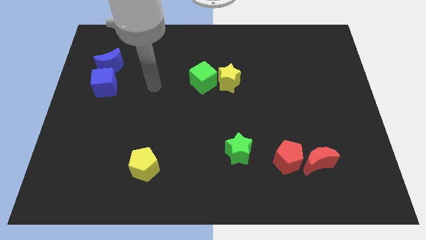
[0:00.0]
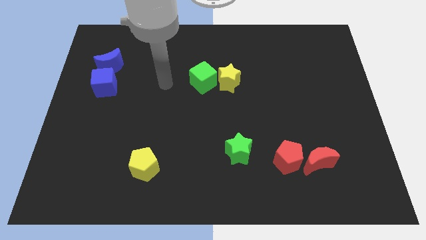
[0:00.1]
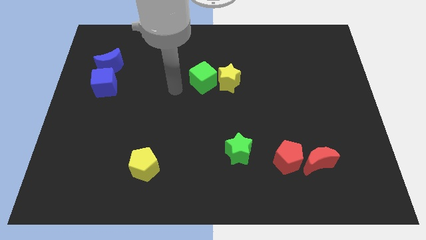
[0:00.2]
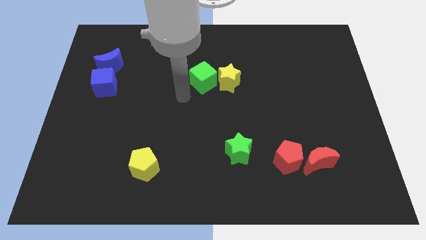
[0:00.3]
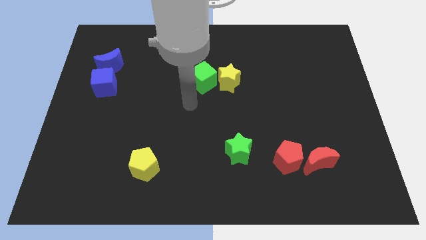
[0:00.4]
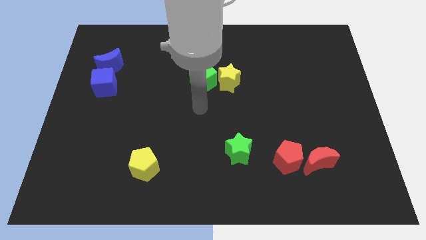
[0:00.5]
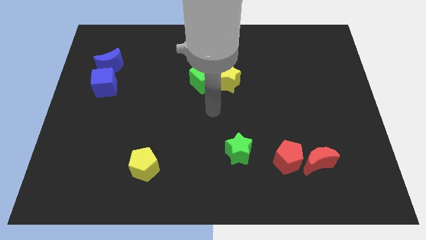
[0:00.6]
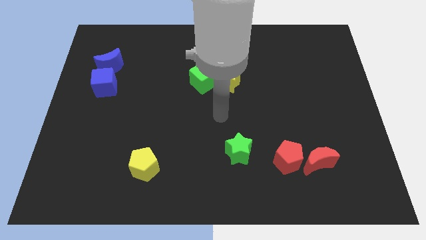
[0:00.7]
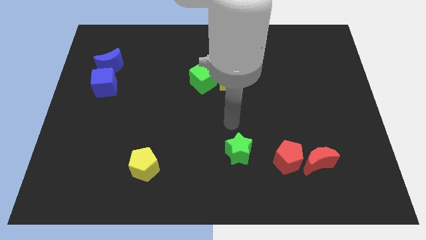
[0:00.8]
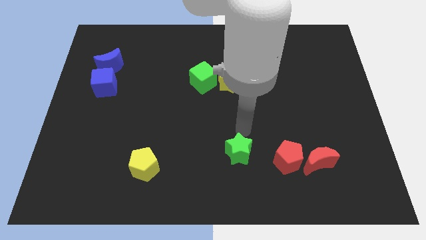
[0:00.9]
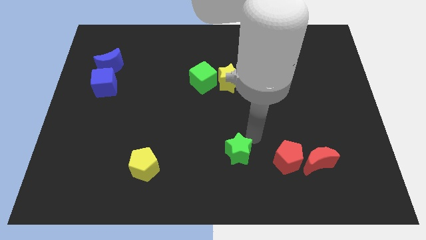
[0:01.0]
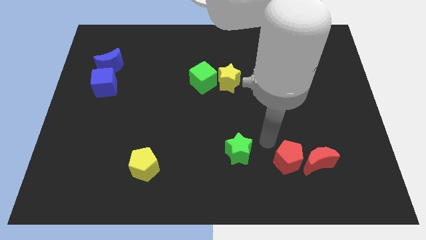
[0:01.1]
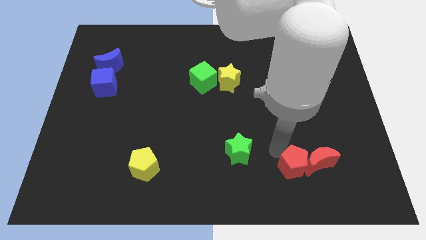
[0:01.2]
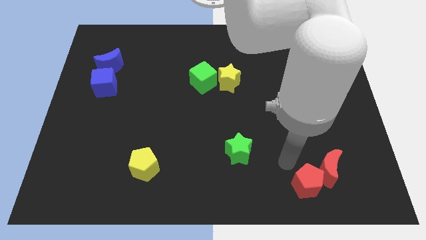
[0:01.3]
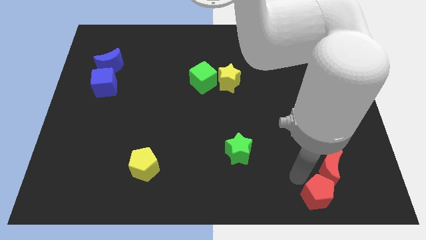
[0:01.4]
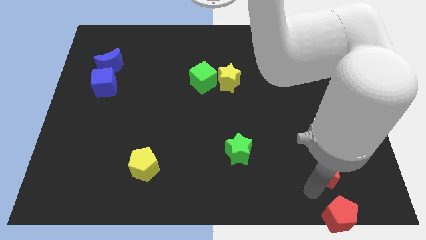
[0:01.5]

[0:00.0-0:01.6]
pull the red moon apart from the red pentagon

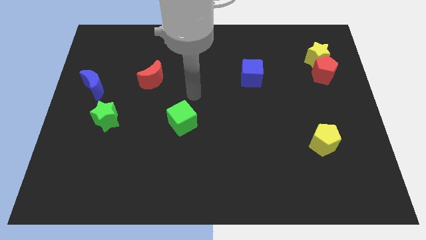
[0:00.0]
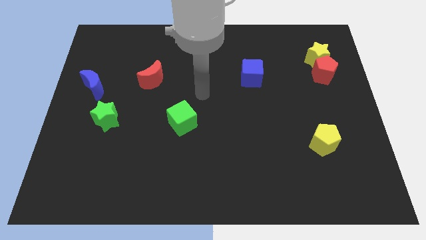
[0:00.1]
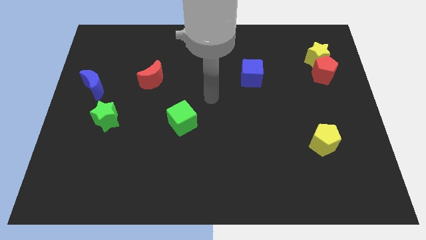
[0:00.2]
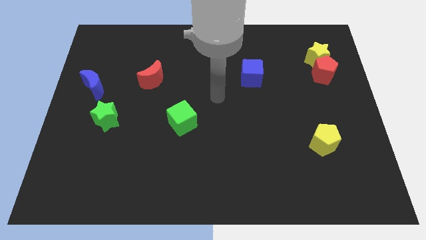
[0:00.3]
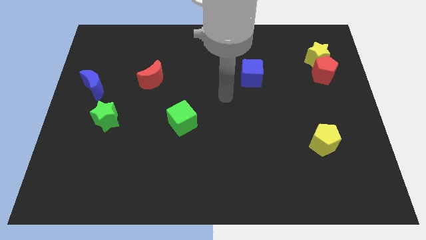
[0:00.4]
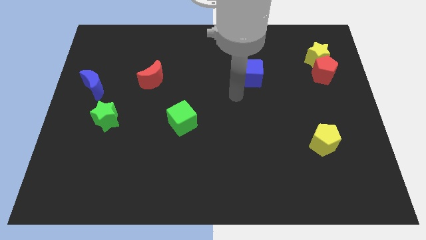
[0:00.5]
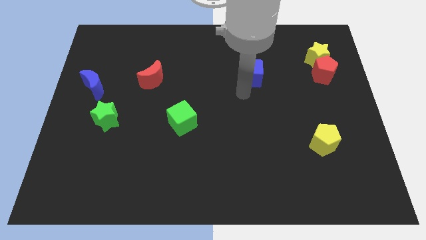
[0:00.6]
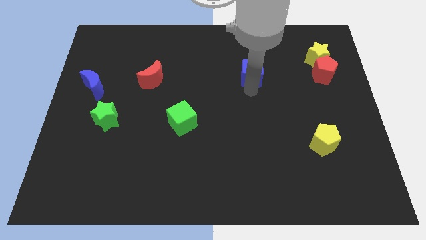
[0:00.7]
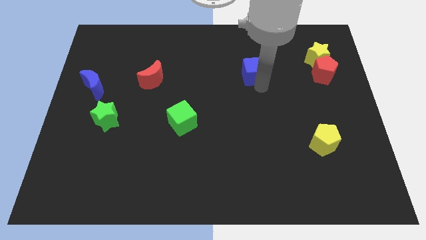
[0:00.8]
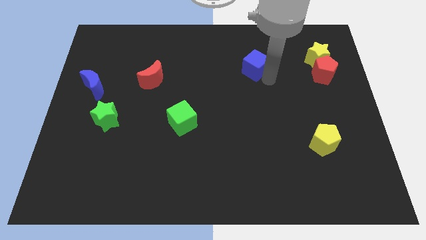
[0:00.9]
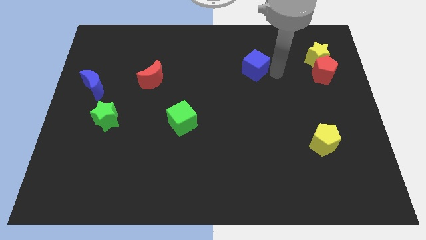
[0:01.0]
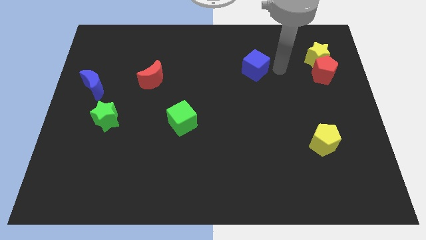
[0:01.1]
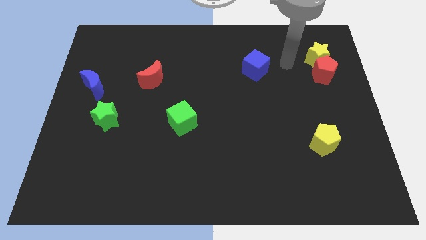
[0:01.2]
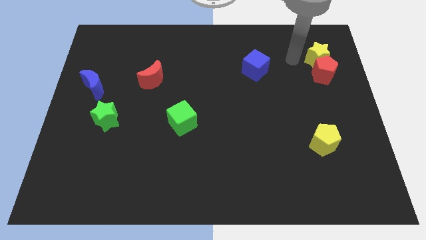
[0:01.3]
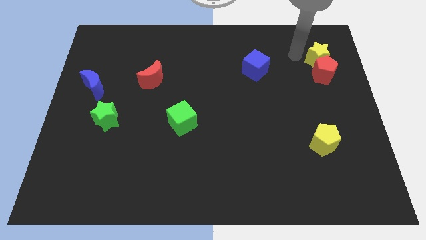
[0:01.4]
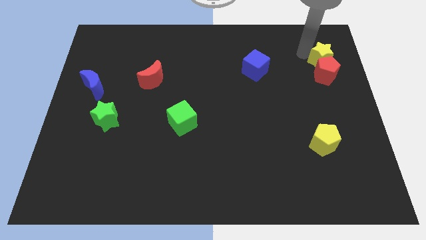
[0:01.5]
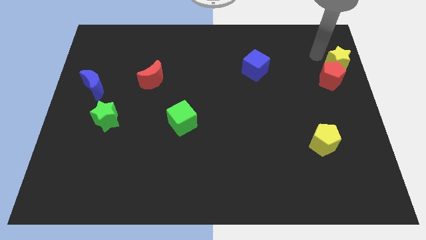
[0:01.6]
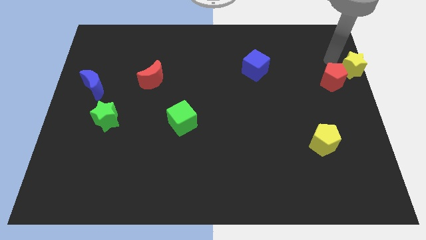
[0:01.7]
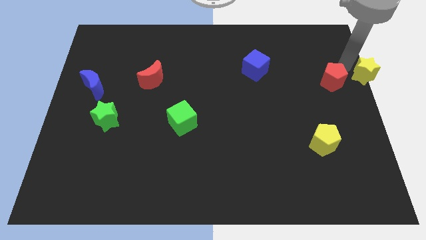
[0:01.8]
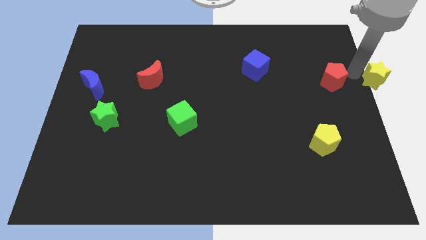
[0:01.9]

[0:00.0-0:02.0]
pull the red pentagon apart from the yellow star

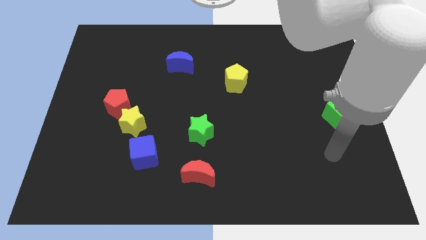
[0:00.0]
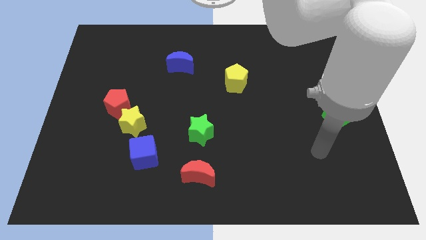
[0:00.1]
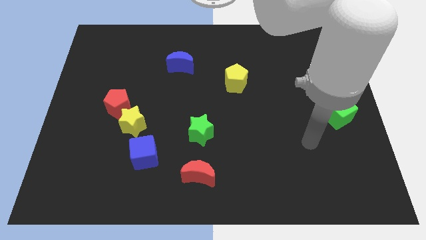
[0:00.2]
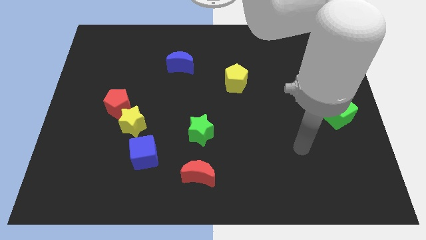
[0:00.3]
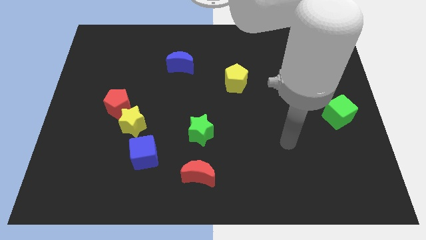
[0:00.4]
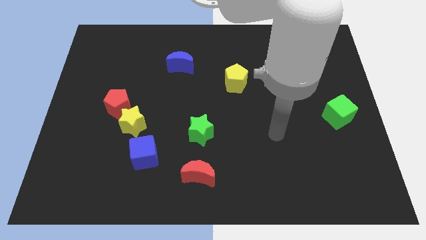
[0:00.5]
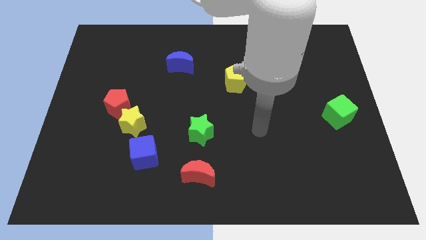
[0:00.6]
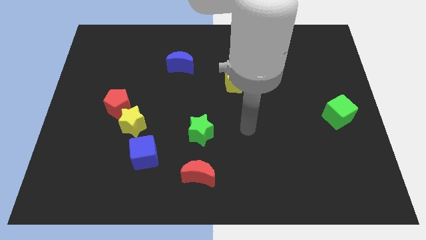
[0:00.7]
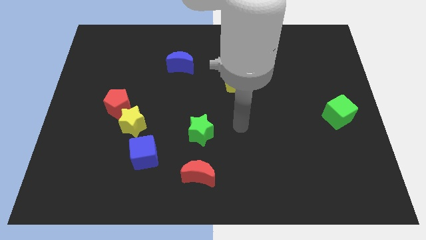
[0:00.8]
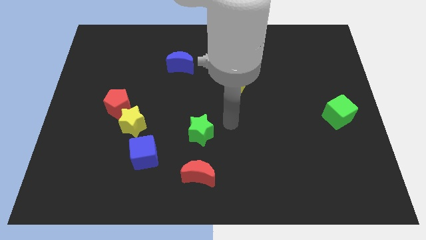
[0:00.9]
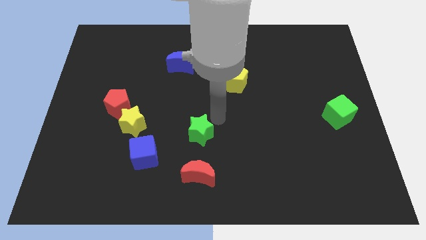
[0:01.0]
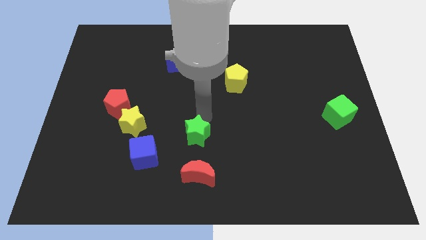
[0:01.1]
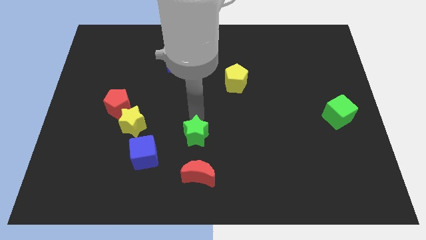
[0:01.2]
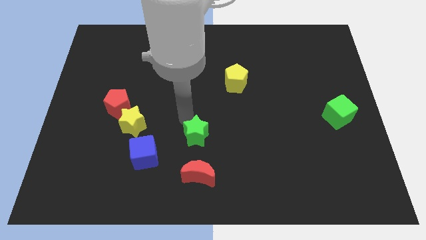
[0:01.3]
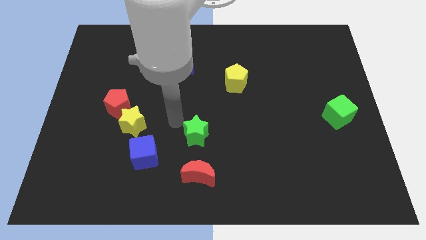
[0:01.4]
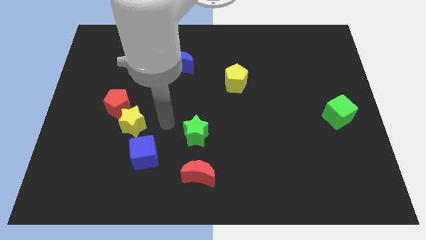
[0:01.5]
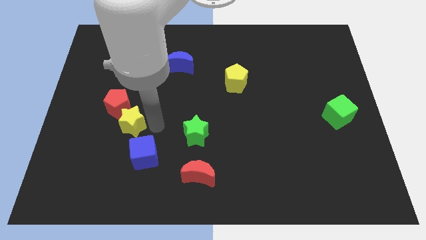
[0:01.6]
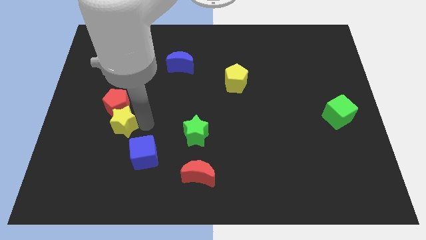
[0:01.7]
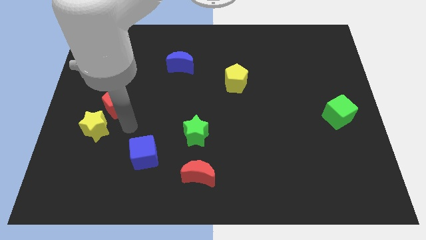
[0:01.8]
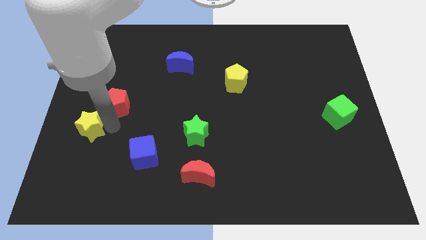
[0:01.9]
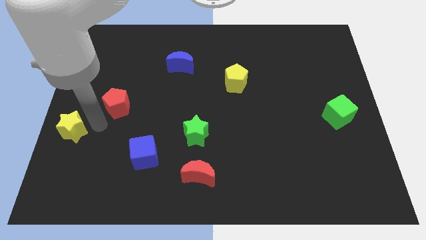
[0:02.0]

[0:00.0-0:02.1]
separate the red pentagon from the yellow star

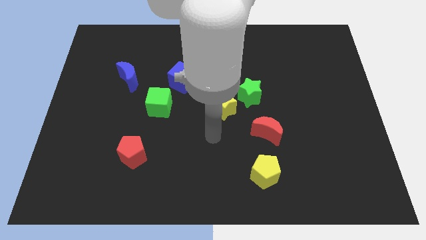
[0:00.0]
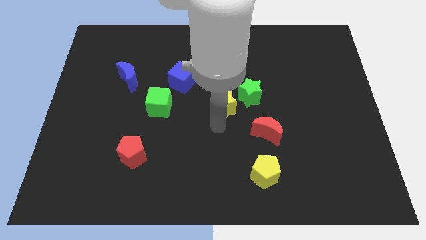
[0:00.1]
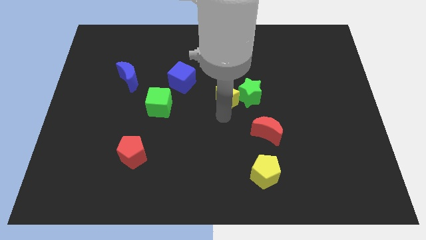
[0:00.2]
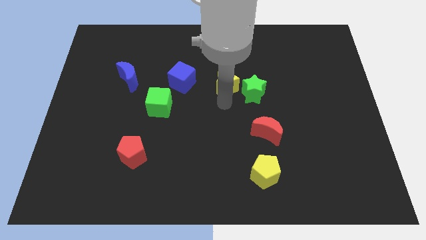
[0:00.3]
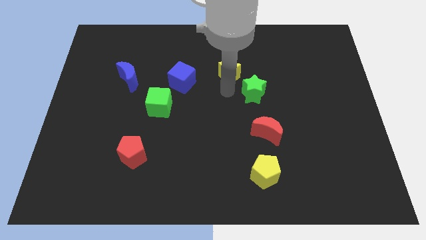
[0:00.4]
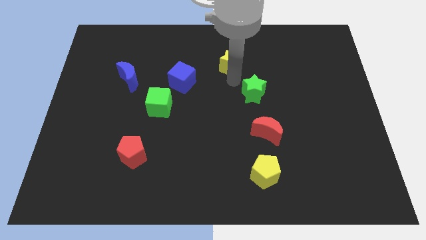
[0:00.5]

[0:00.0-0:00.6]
move the green star away from the yellow star

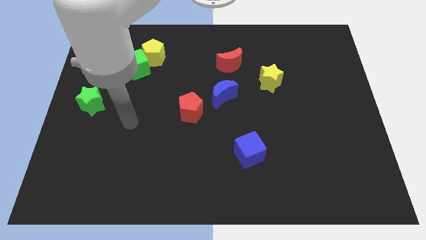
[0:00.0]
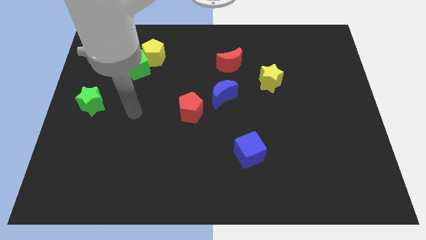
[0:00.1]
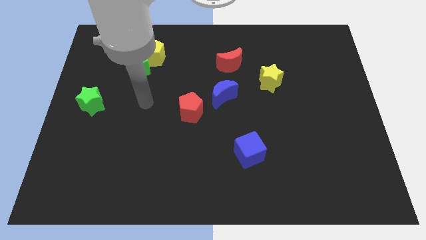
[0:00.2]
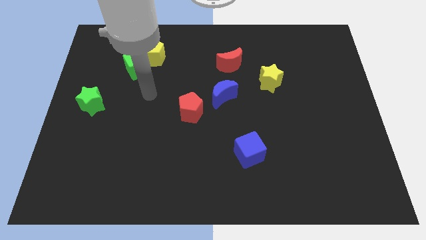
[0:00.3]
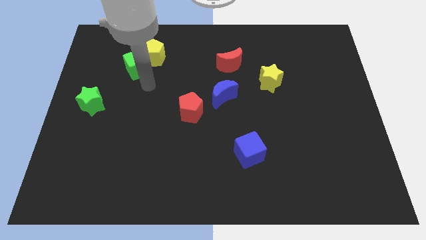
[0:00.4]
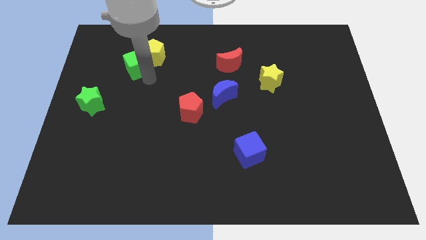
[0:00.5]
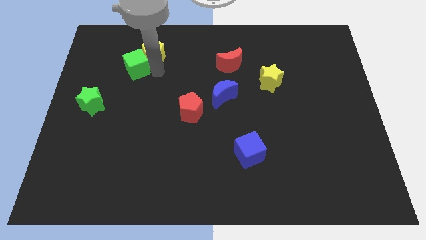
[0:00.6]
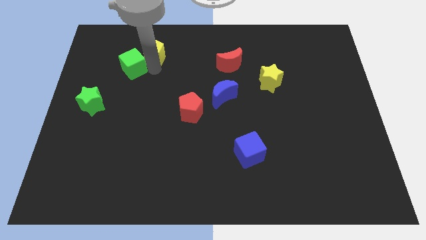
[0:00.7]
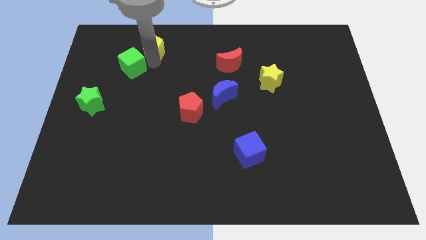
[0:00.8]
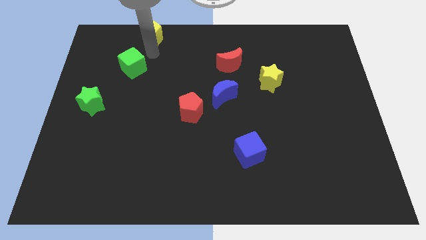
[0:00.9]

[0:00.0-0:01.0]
separate the green cube from the yellow pentagon

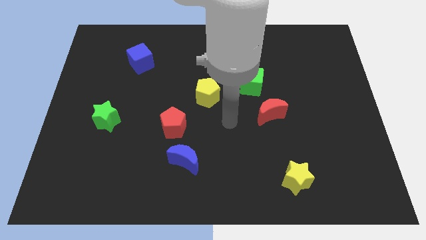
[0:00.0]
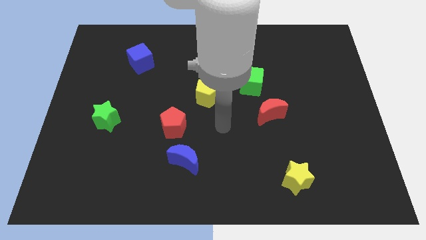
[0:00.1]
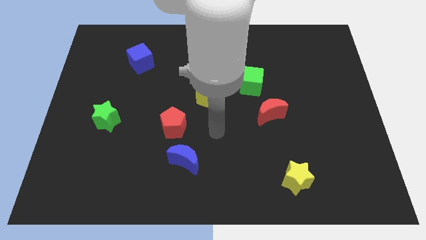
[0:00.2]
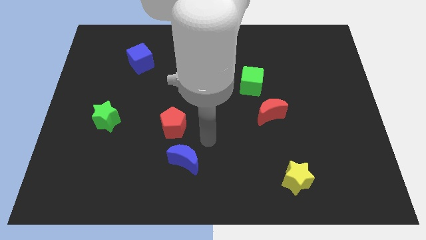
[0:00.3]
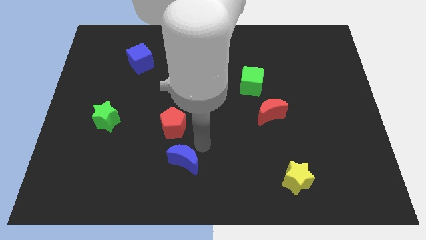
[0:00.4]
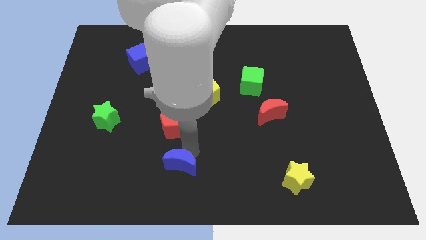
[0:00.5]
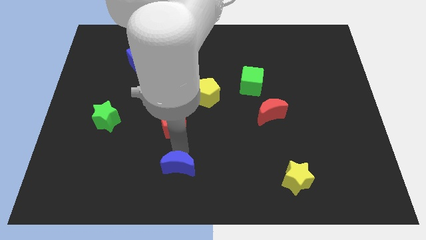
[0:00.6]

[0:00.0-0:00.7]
pull the red pentagon apart from the blue moon

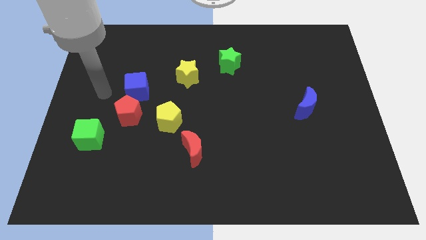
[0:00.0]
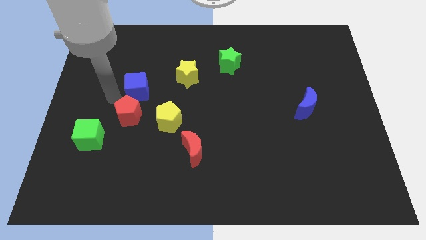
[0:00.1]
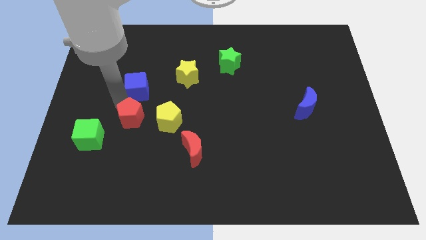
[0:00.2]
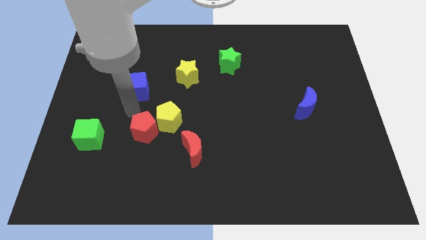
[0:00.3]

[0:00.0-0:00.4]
separate the blue cube from the red pentagon

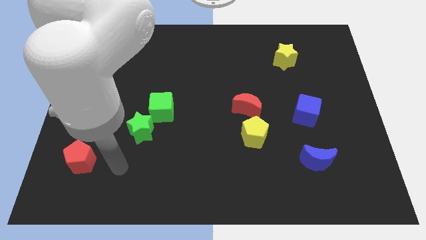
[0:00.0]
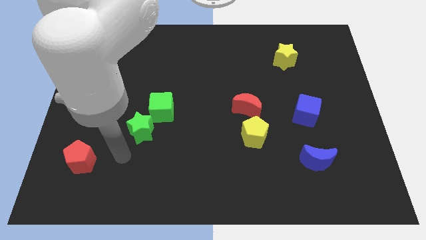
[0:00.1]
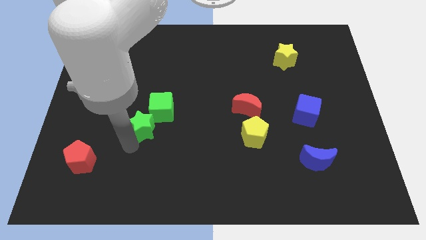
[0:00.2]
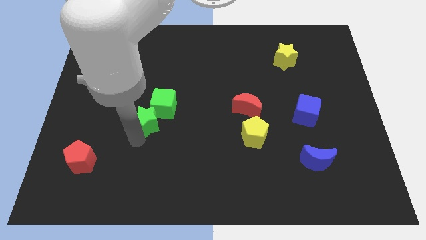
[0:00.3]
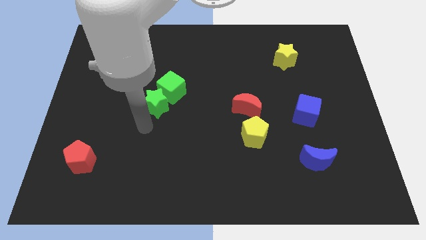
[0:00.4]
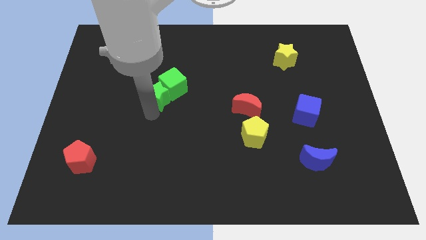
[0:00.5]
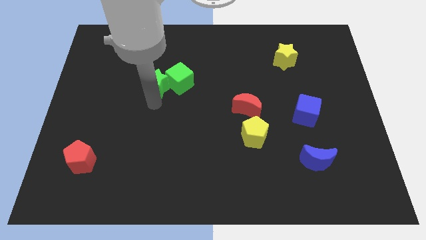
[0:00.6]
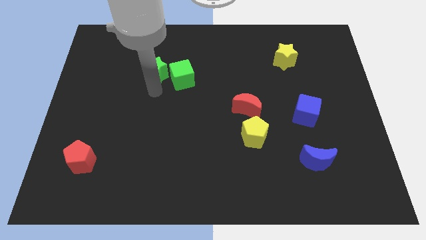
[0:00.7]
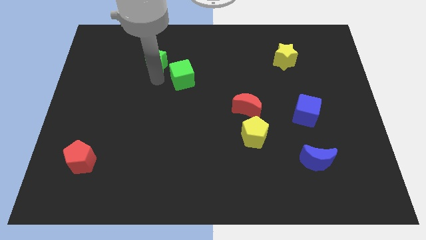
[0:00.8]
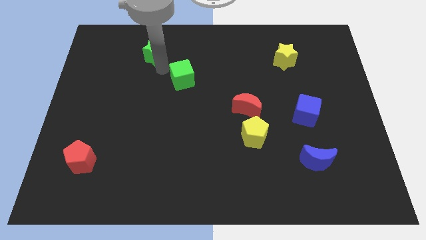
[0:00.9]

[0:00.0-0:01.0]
move the green cube away from the green star
